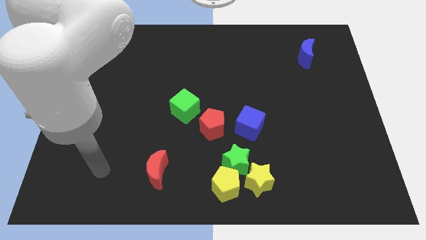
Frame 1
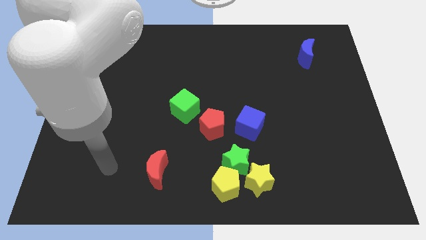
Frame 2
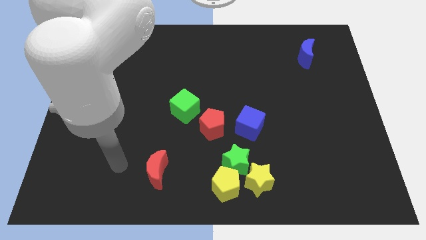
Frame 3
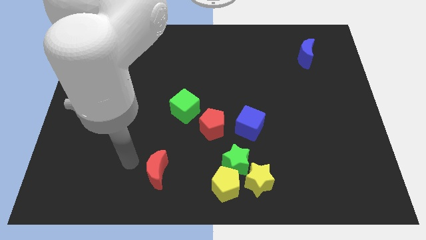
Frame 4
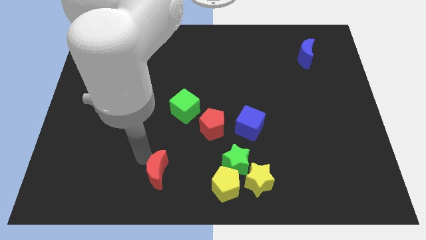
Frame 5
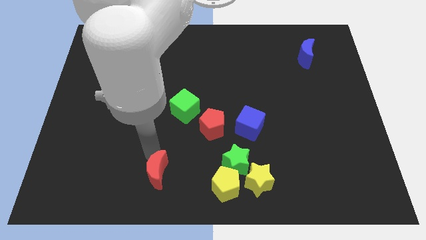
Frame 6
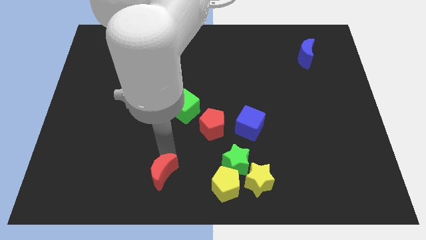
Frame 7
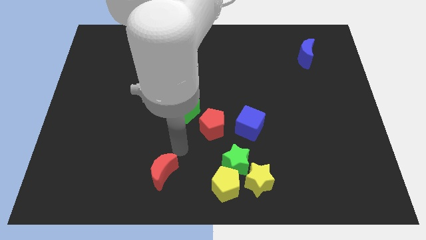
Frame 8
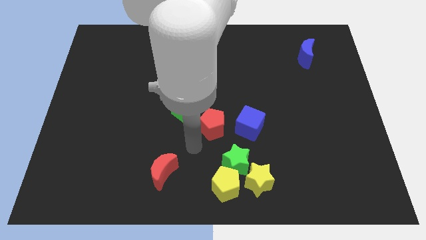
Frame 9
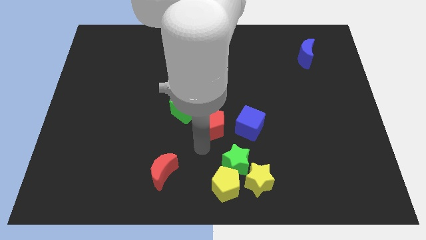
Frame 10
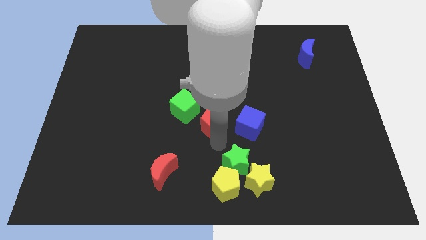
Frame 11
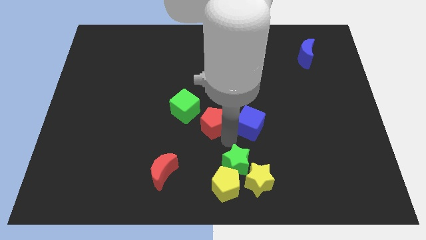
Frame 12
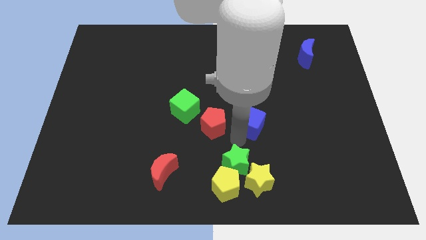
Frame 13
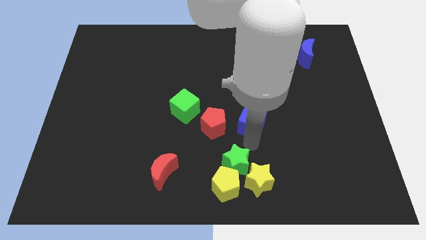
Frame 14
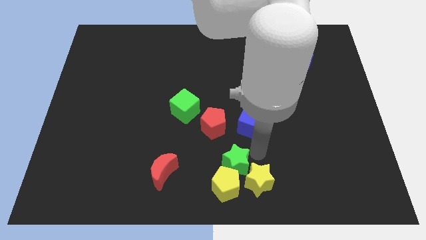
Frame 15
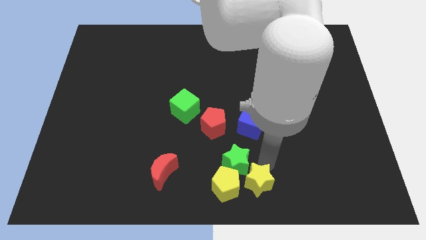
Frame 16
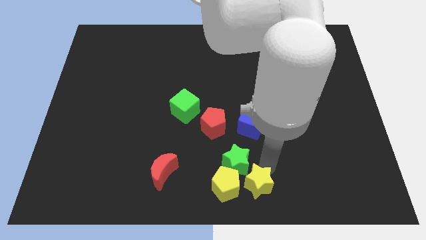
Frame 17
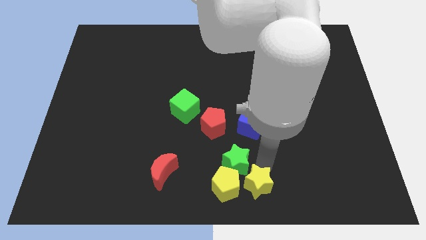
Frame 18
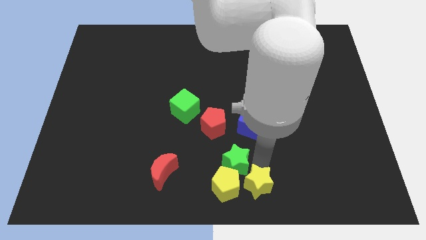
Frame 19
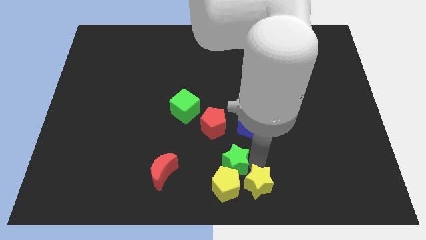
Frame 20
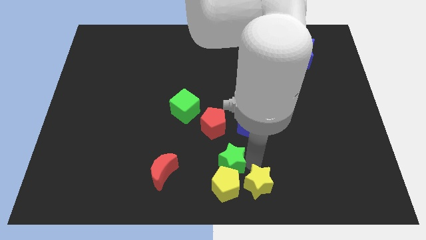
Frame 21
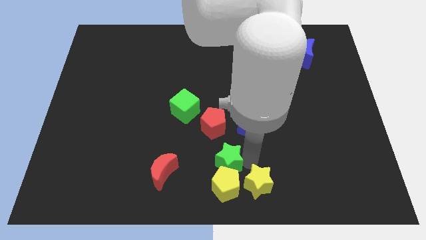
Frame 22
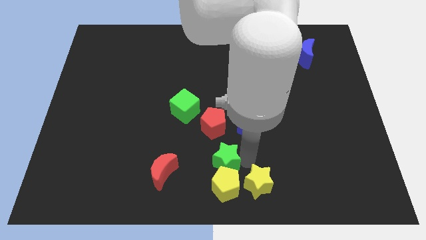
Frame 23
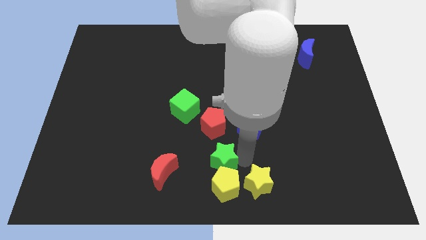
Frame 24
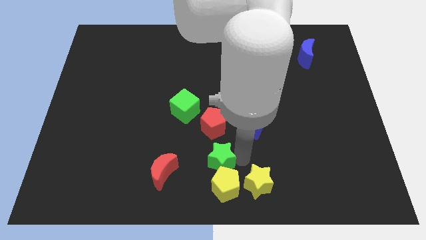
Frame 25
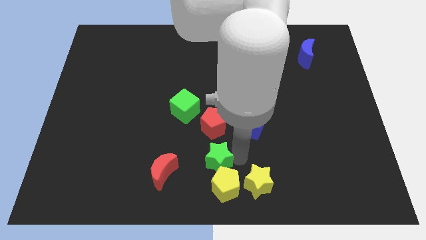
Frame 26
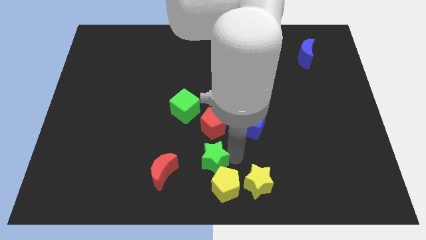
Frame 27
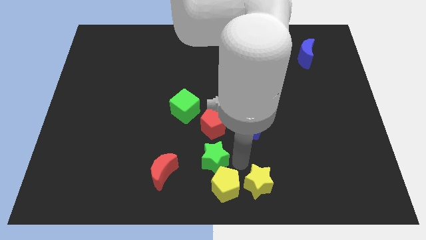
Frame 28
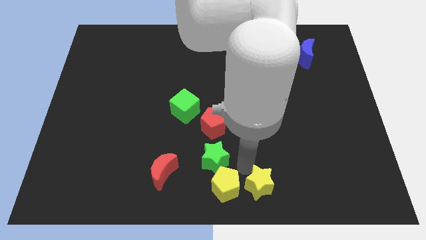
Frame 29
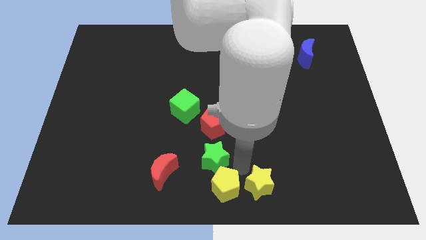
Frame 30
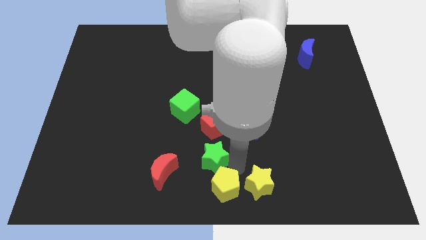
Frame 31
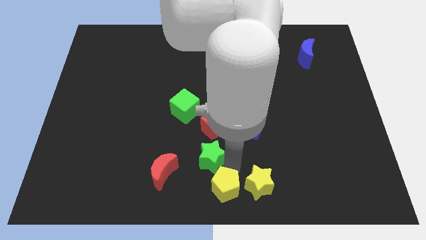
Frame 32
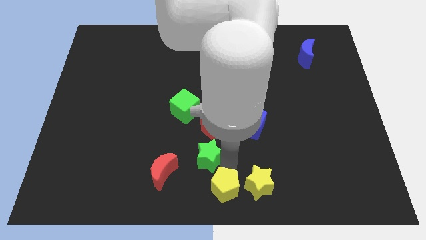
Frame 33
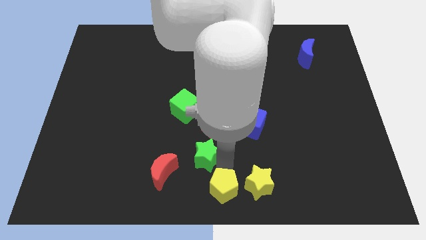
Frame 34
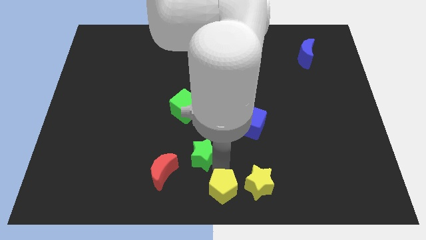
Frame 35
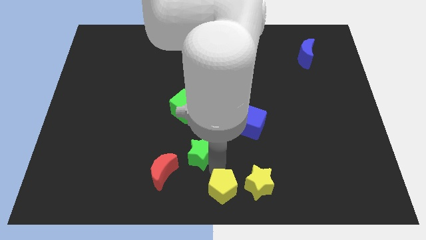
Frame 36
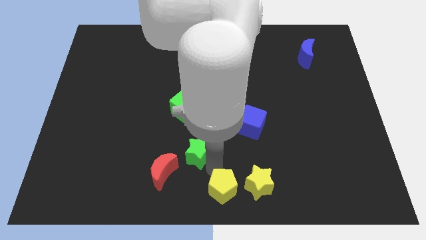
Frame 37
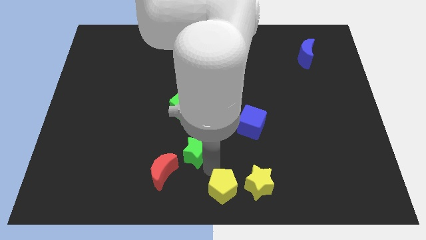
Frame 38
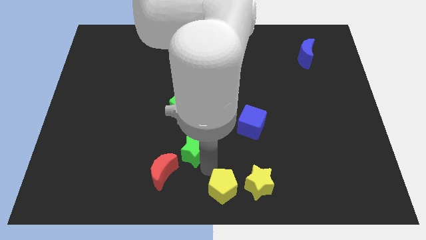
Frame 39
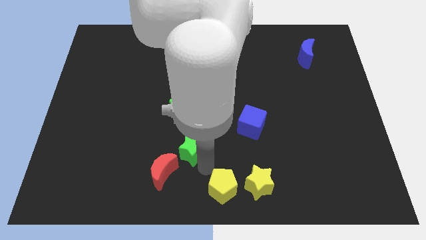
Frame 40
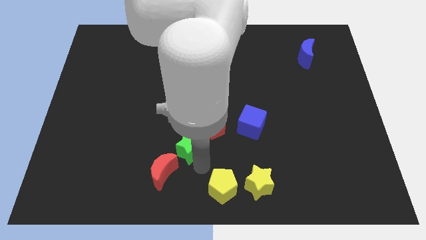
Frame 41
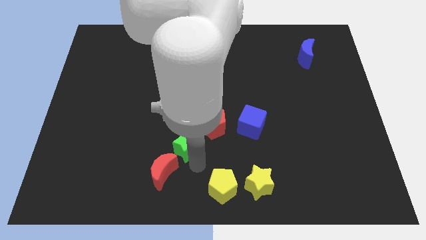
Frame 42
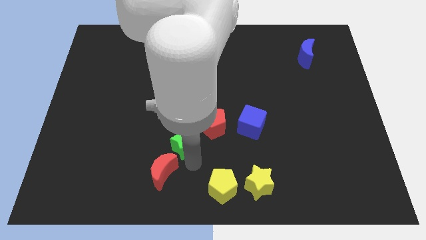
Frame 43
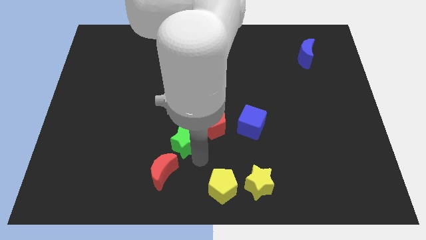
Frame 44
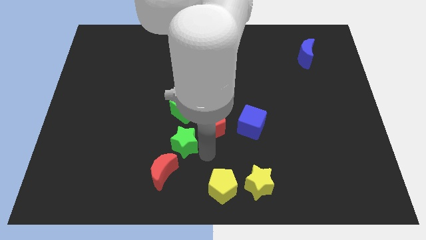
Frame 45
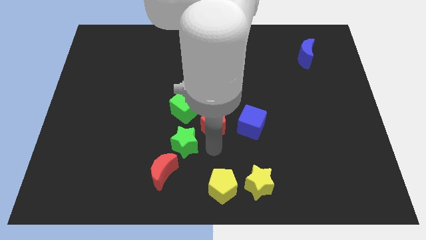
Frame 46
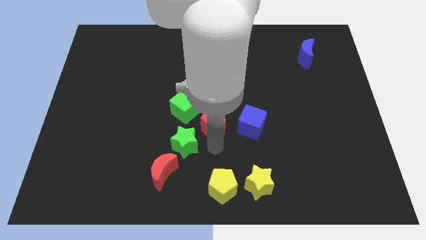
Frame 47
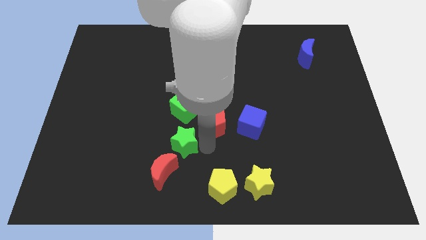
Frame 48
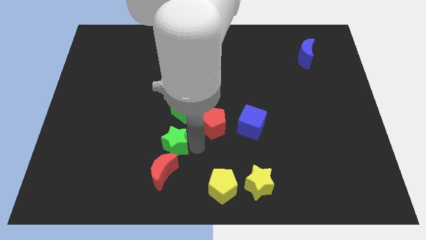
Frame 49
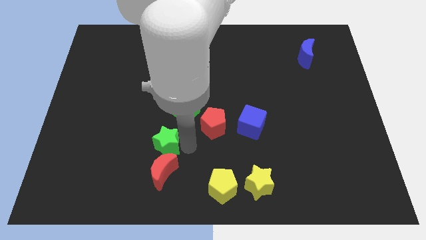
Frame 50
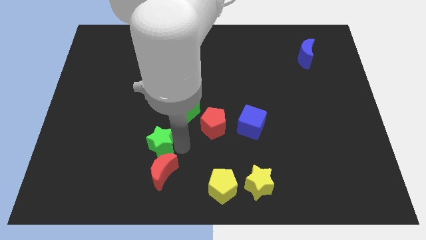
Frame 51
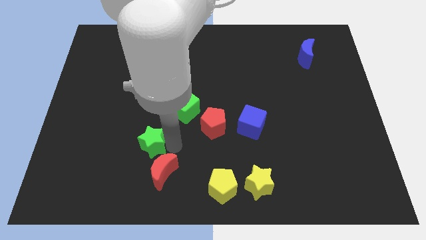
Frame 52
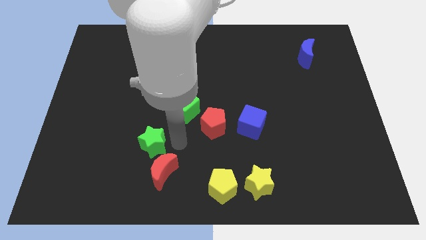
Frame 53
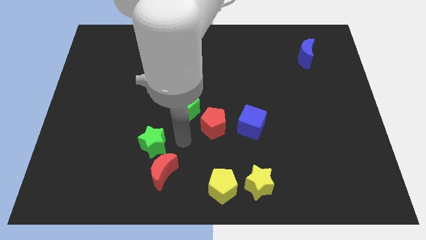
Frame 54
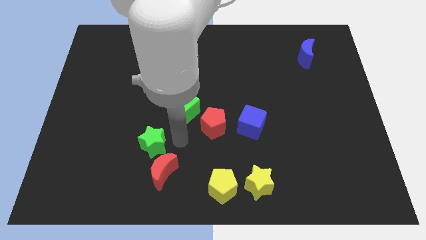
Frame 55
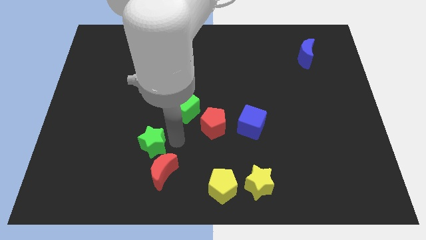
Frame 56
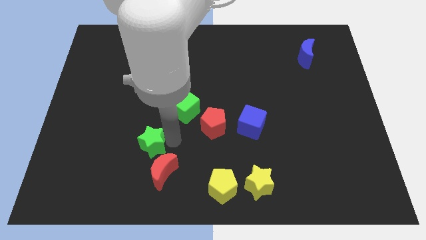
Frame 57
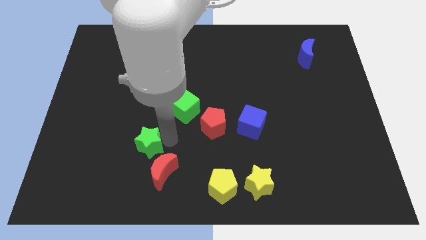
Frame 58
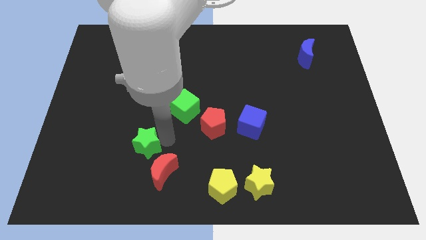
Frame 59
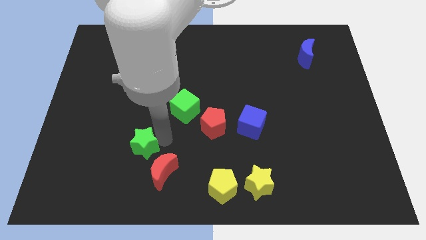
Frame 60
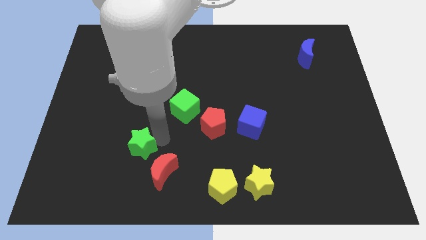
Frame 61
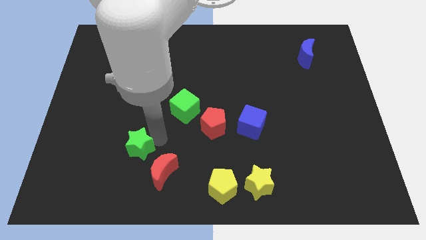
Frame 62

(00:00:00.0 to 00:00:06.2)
move the green star left

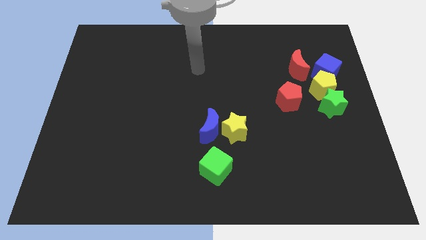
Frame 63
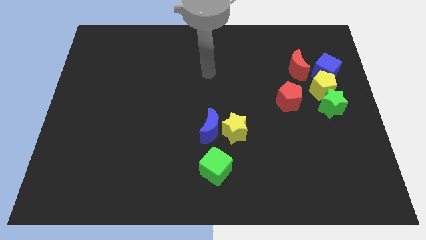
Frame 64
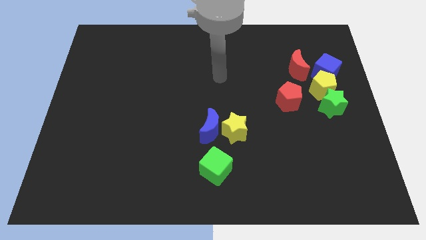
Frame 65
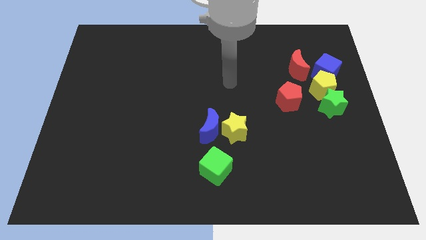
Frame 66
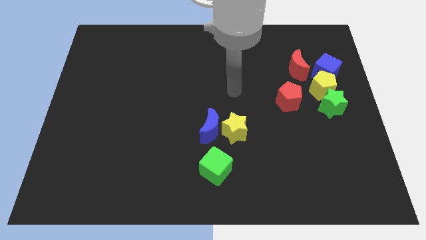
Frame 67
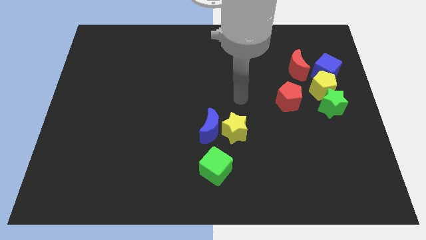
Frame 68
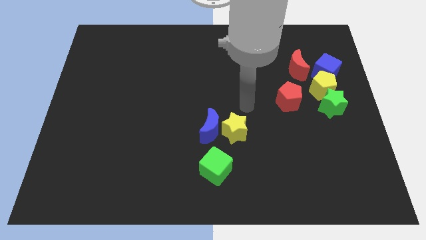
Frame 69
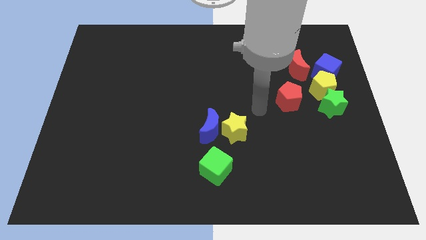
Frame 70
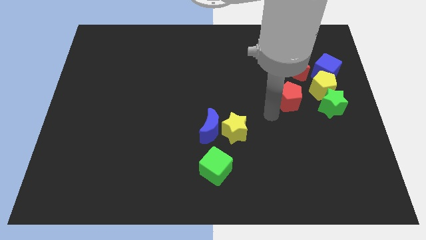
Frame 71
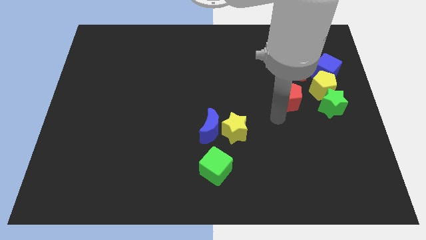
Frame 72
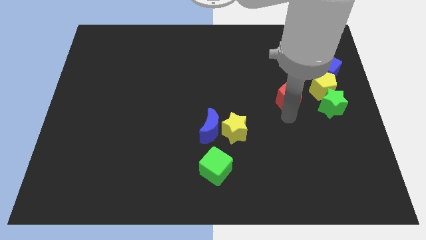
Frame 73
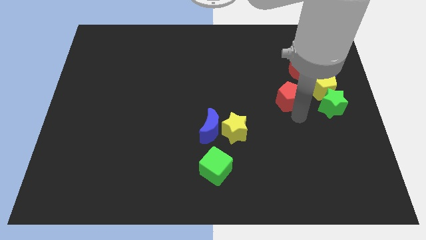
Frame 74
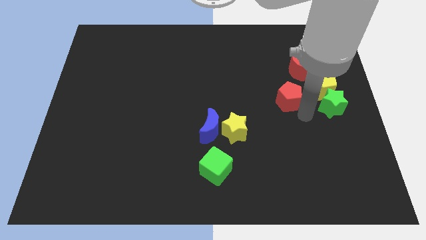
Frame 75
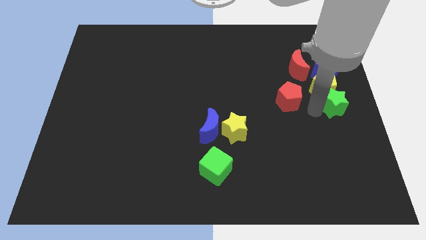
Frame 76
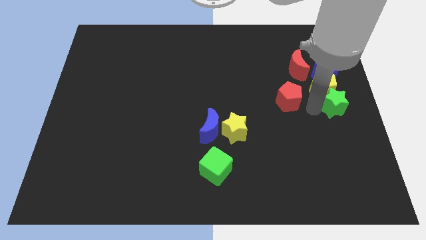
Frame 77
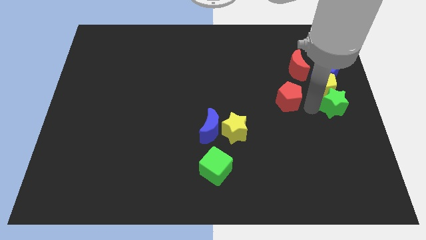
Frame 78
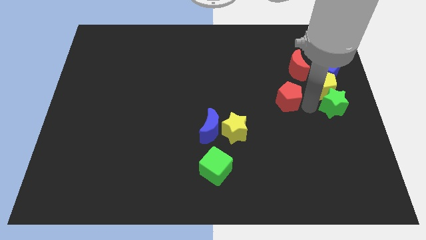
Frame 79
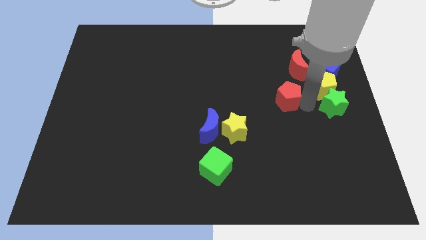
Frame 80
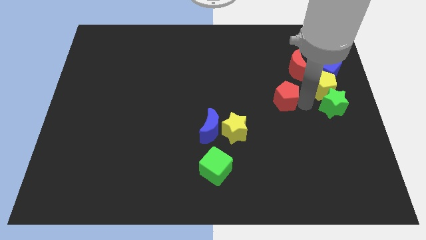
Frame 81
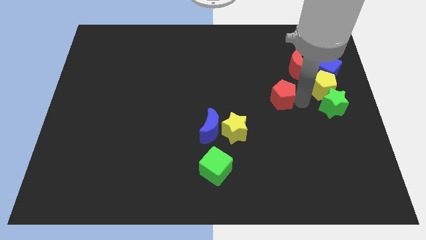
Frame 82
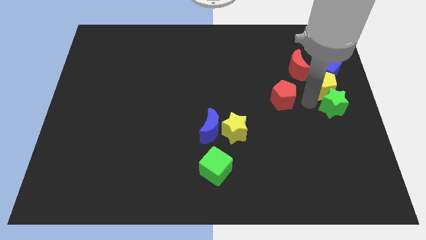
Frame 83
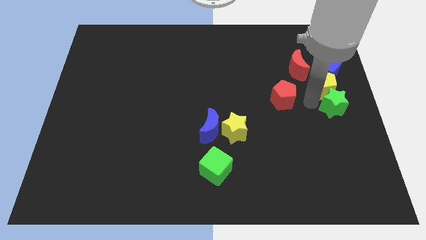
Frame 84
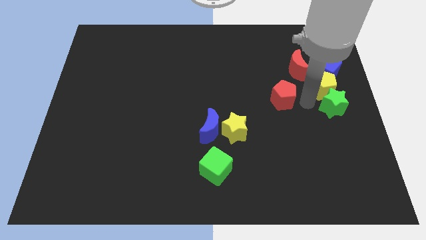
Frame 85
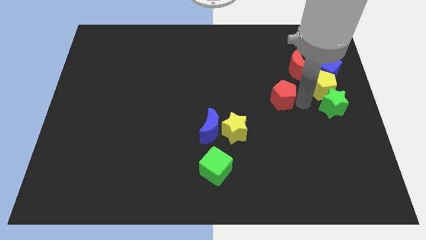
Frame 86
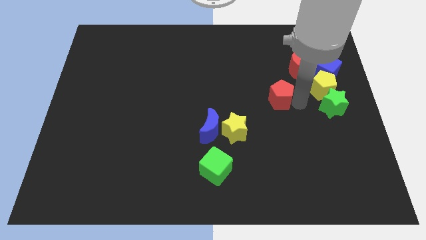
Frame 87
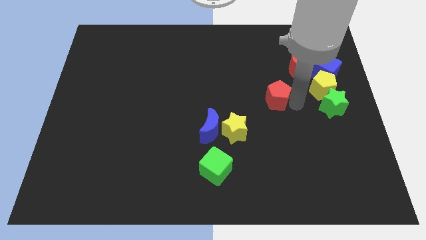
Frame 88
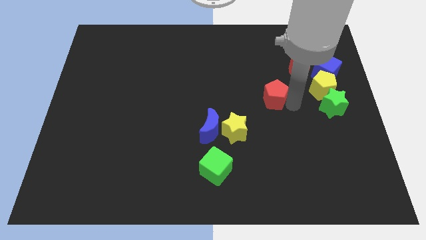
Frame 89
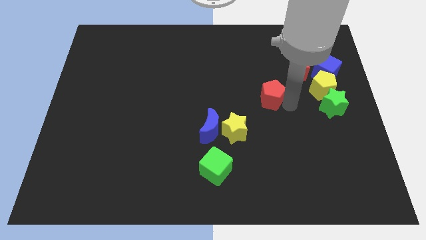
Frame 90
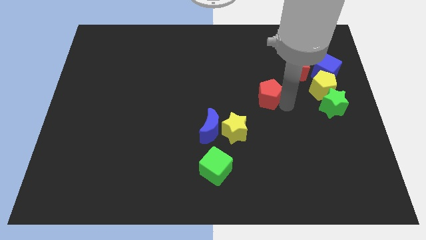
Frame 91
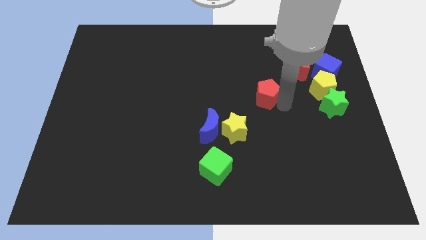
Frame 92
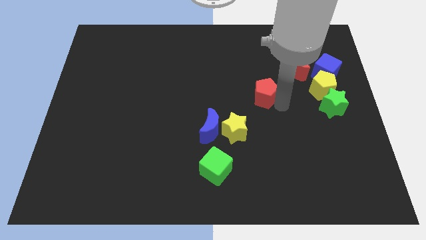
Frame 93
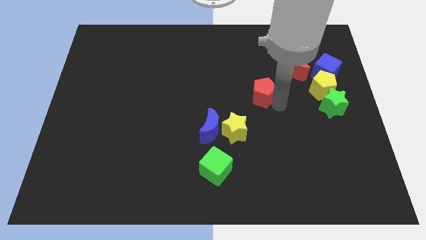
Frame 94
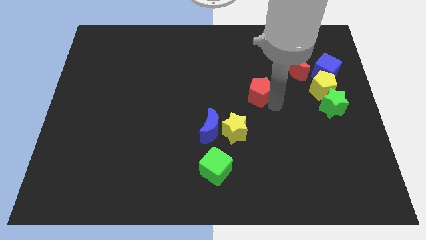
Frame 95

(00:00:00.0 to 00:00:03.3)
slightly move the red pentagon to the left
